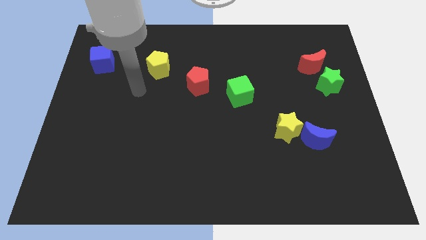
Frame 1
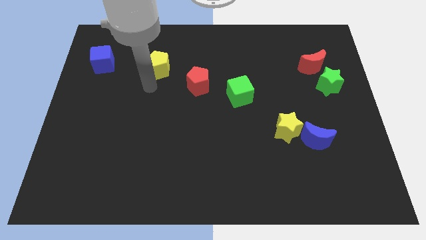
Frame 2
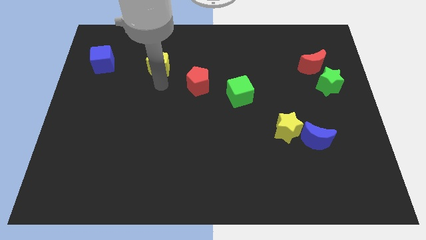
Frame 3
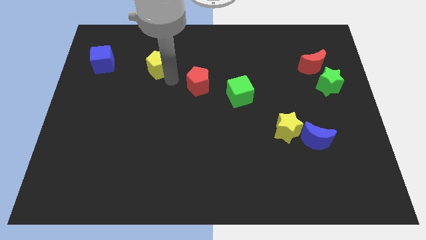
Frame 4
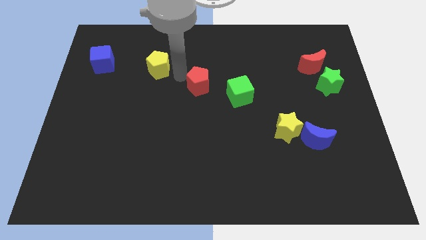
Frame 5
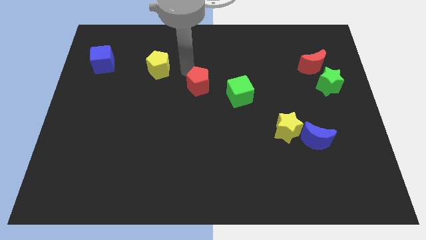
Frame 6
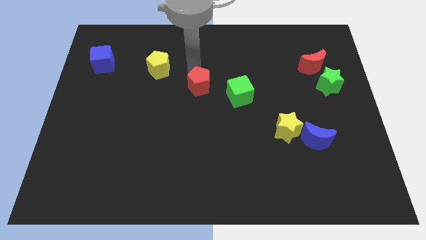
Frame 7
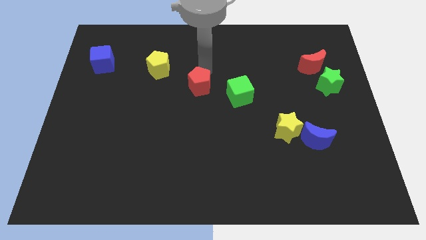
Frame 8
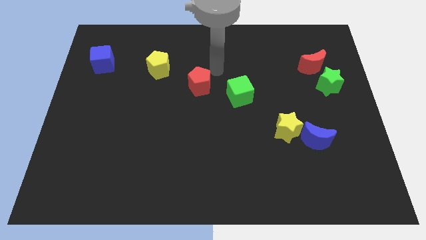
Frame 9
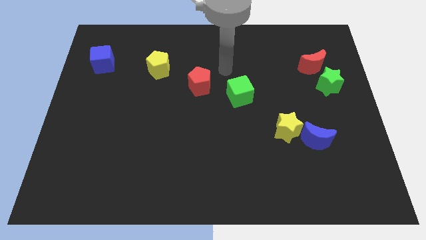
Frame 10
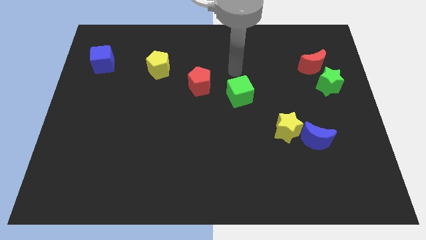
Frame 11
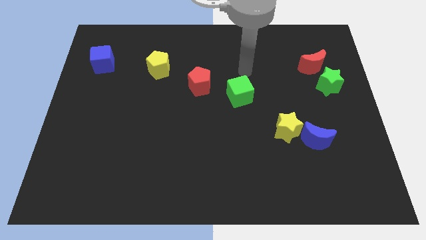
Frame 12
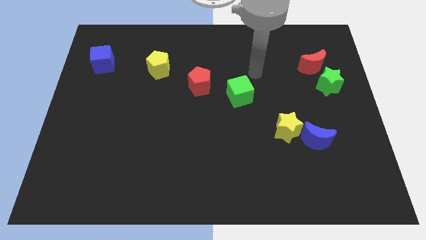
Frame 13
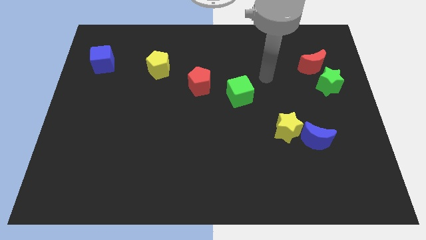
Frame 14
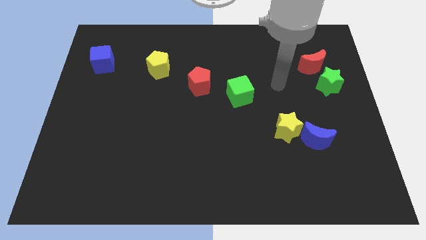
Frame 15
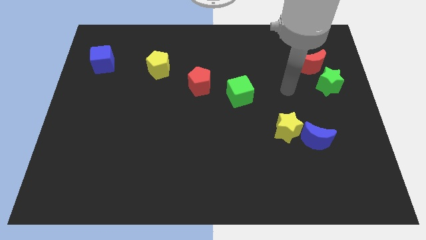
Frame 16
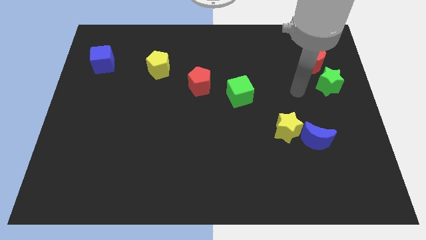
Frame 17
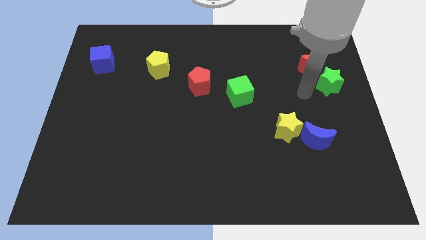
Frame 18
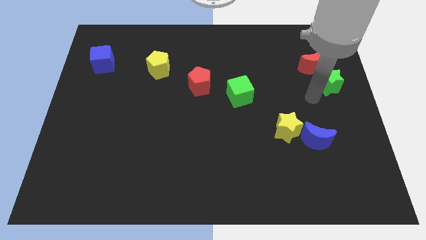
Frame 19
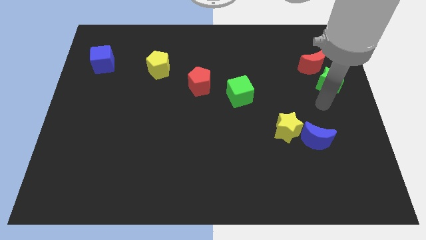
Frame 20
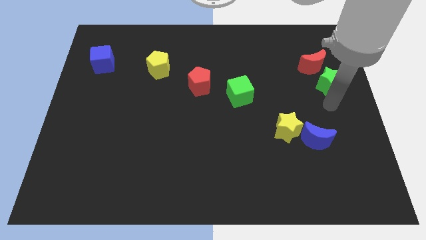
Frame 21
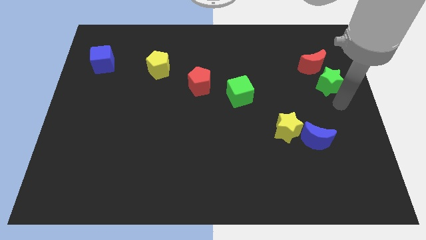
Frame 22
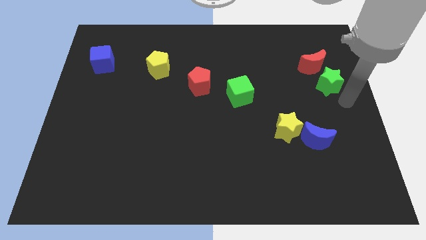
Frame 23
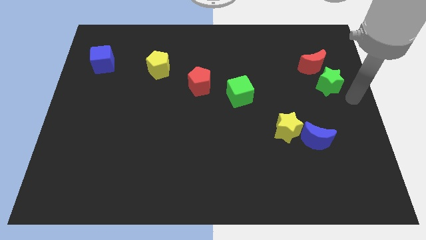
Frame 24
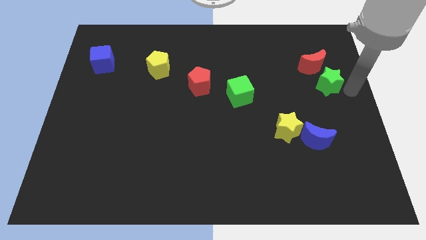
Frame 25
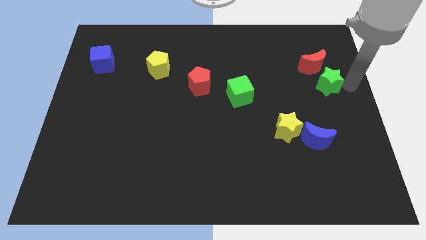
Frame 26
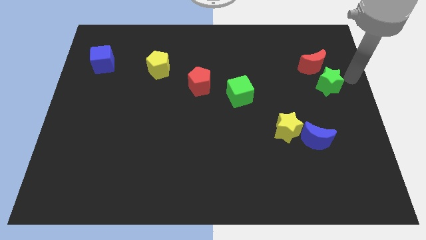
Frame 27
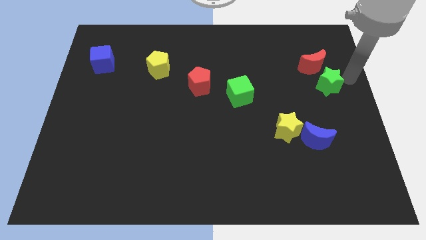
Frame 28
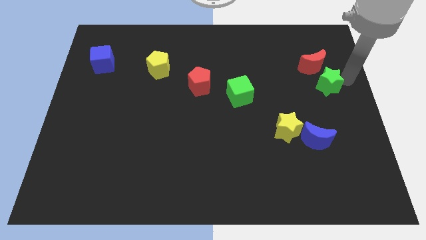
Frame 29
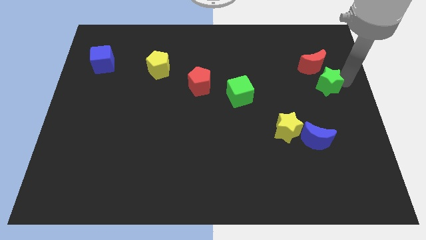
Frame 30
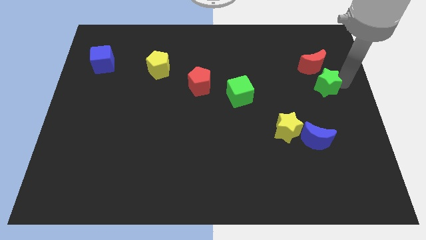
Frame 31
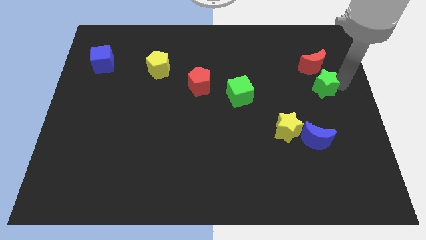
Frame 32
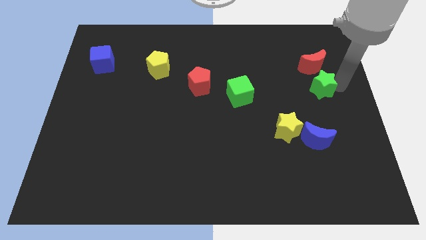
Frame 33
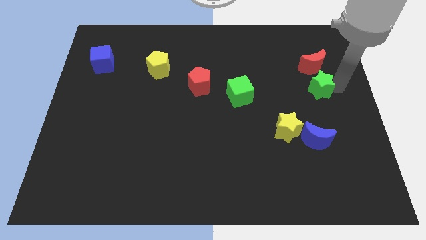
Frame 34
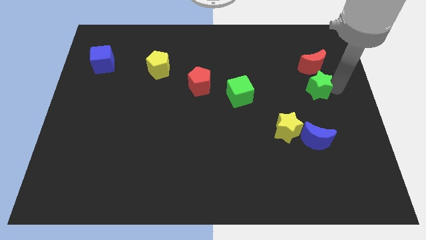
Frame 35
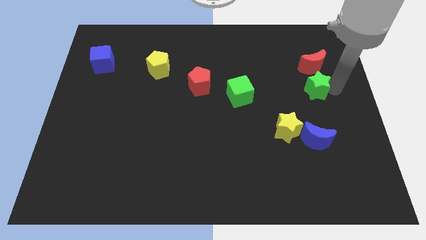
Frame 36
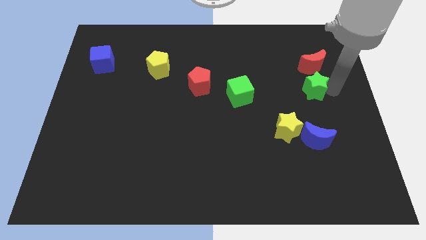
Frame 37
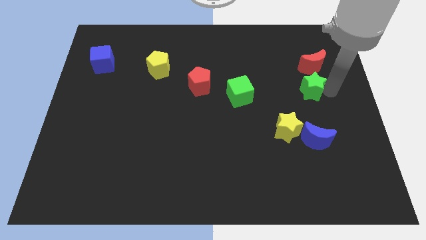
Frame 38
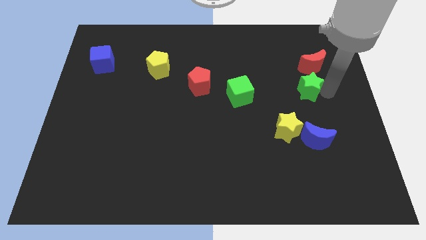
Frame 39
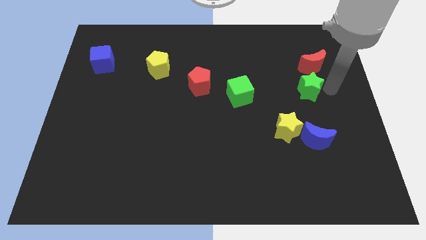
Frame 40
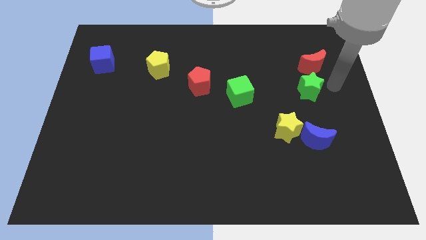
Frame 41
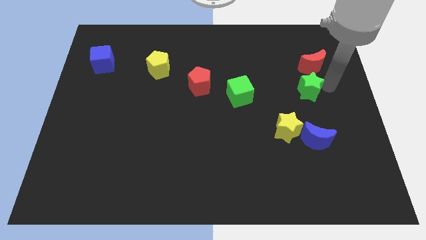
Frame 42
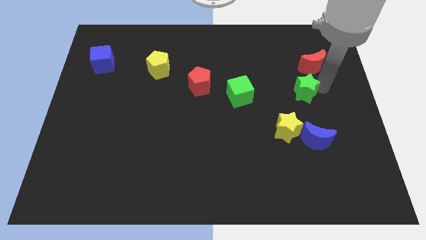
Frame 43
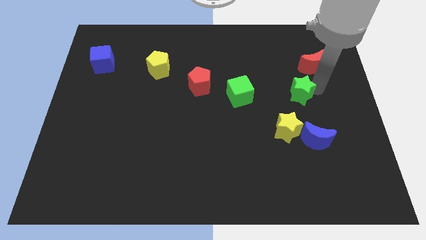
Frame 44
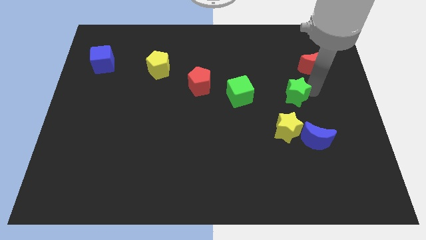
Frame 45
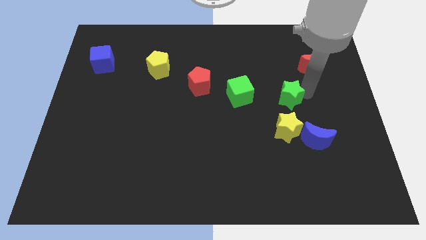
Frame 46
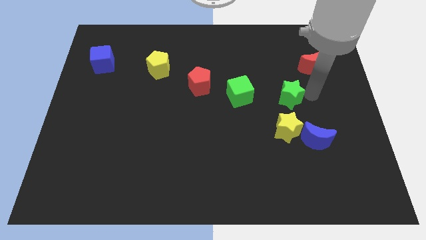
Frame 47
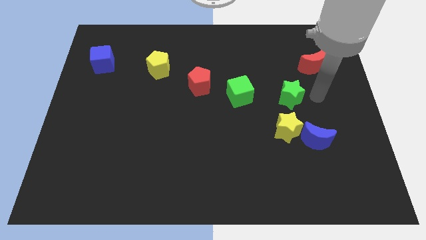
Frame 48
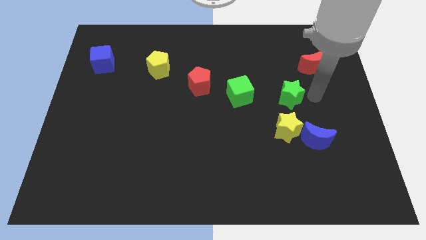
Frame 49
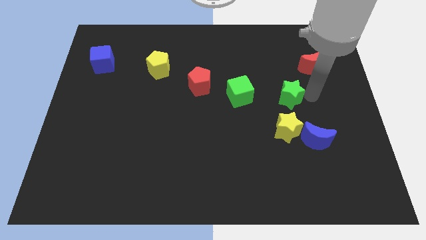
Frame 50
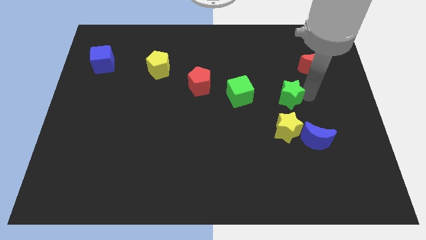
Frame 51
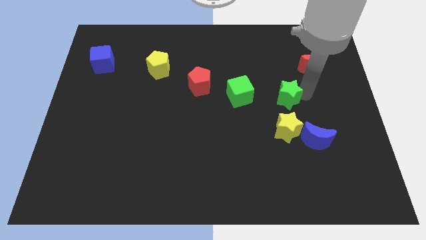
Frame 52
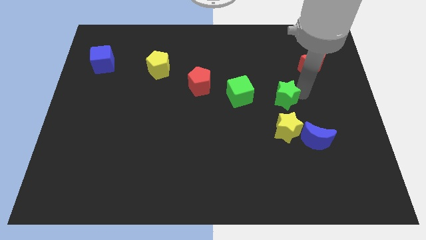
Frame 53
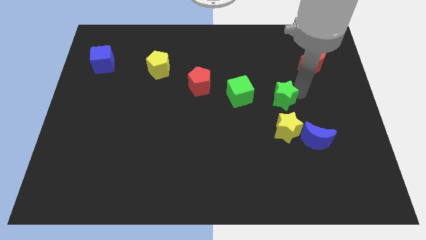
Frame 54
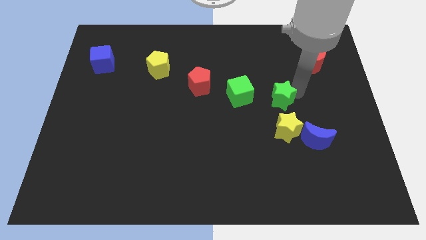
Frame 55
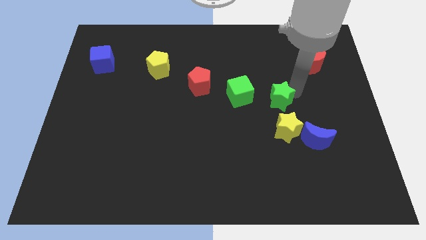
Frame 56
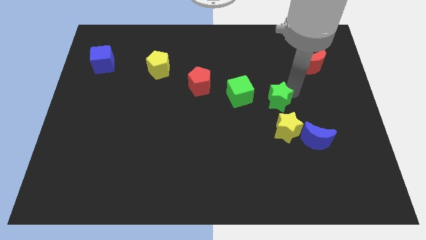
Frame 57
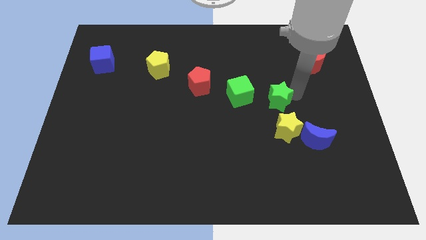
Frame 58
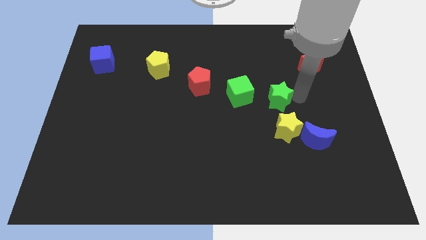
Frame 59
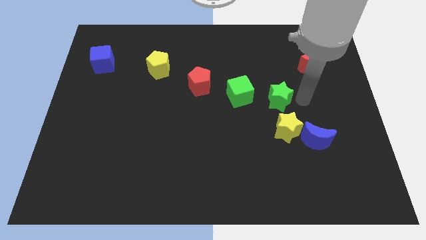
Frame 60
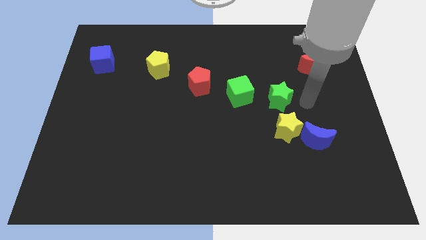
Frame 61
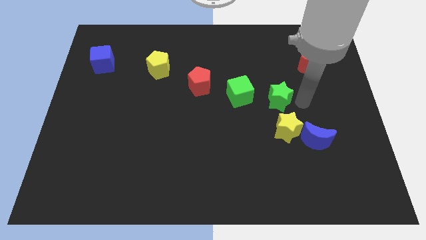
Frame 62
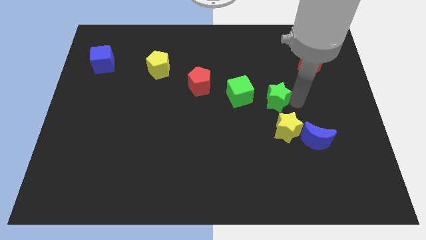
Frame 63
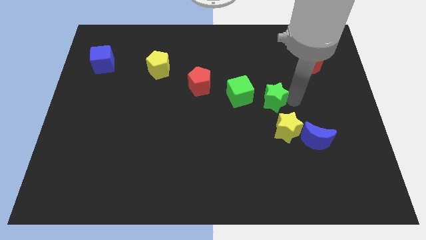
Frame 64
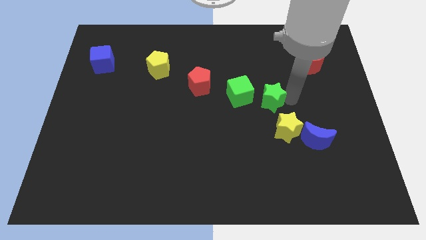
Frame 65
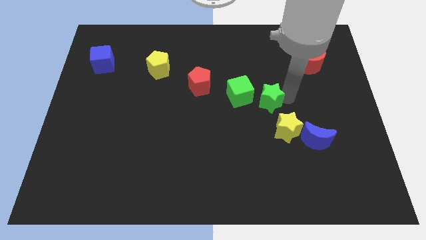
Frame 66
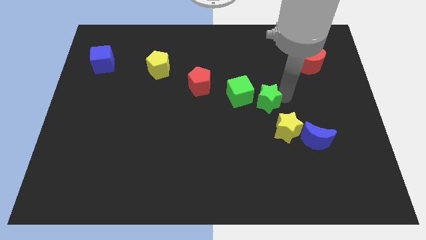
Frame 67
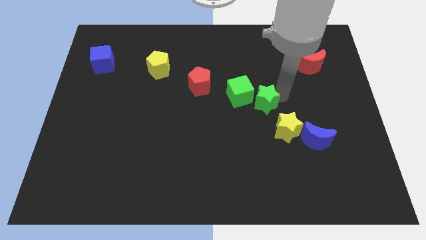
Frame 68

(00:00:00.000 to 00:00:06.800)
move the green star to the middle

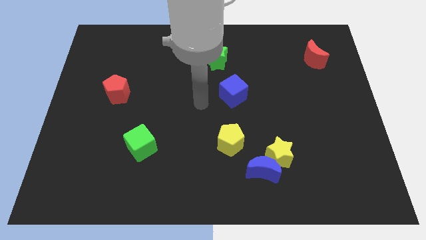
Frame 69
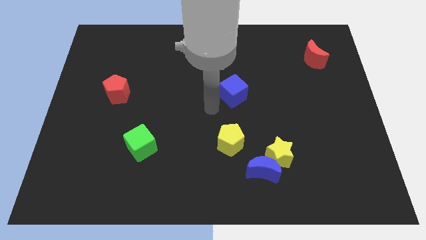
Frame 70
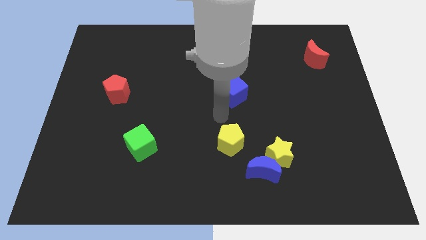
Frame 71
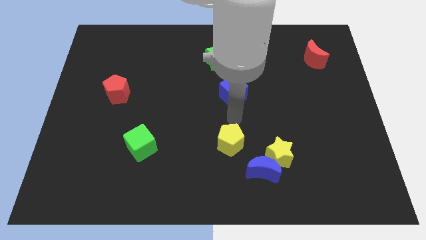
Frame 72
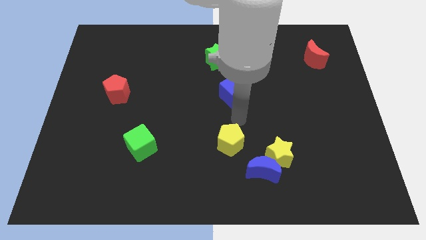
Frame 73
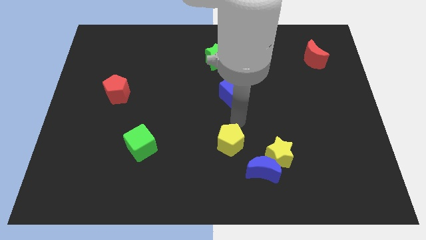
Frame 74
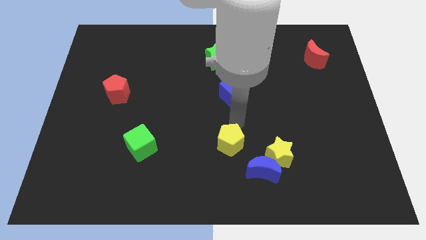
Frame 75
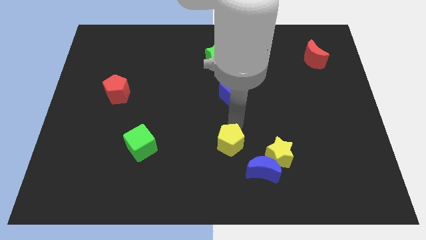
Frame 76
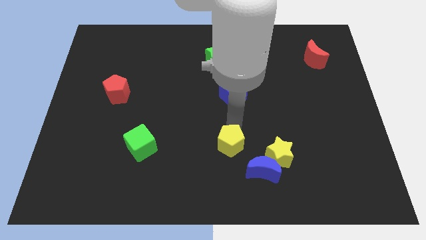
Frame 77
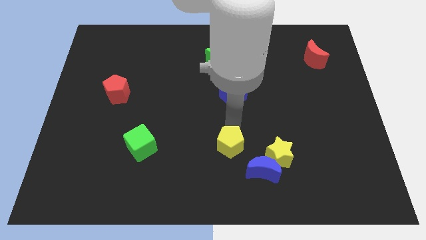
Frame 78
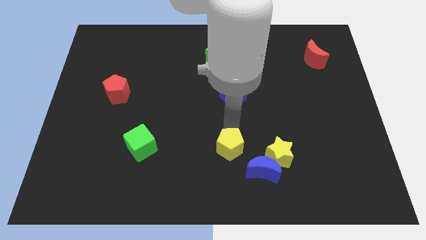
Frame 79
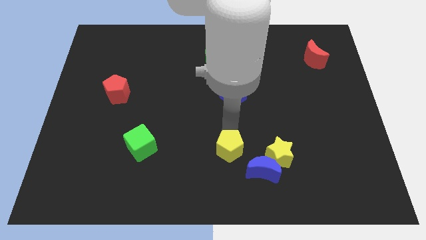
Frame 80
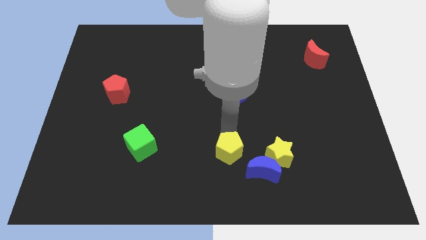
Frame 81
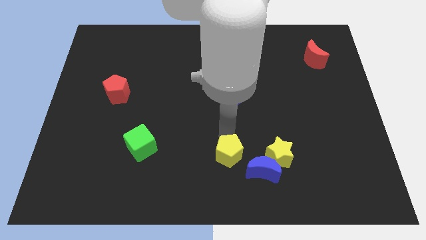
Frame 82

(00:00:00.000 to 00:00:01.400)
move the yellow pentagon to the bottom side

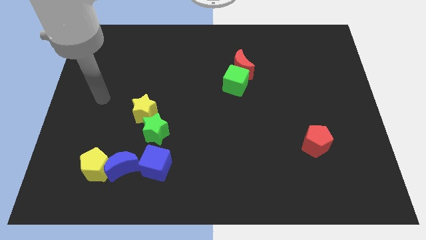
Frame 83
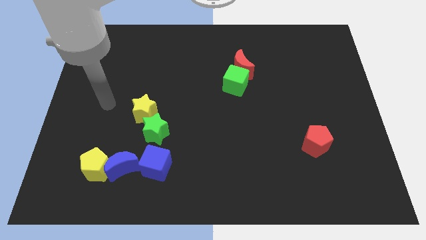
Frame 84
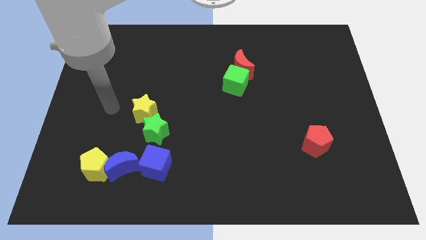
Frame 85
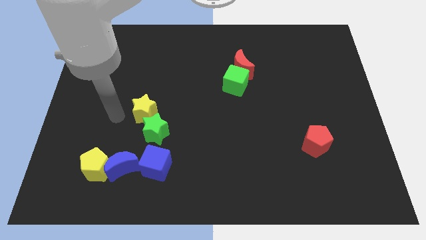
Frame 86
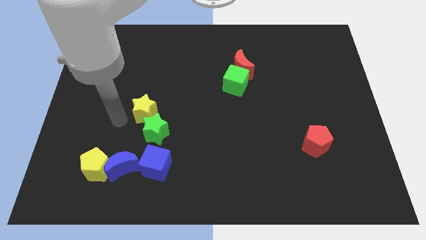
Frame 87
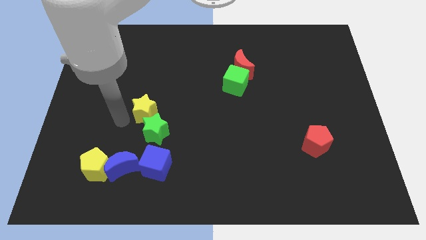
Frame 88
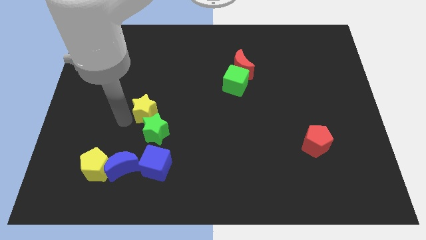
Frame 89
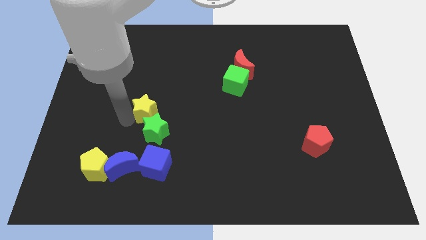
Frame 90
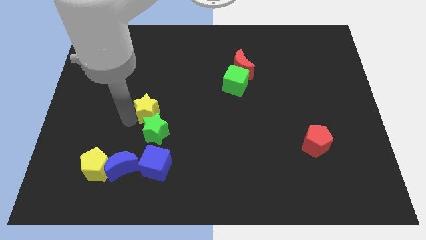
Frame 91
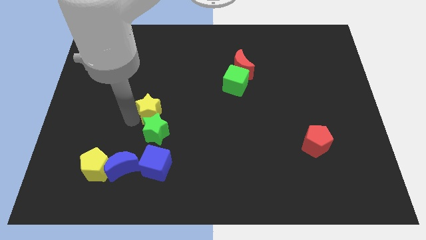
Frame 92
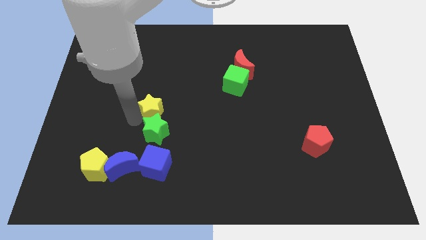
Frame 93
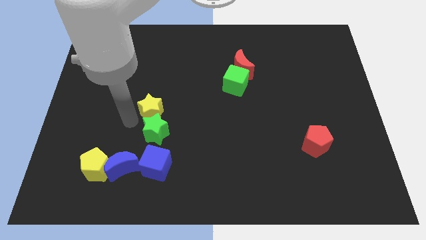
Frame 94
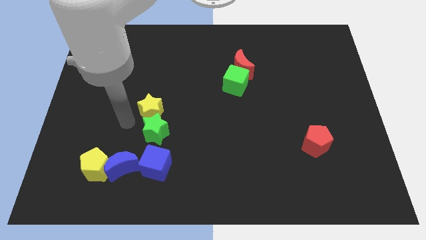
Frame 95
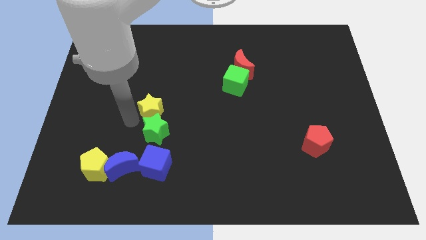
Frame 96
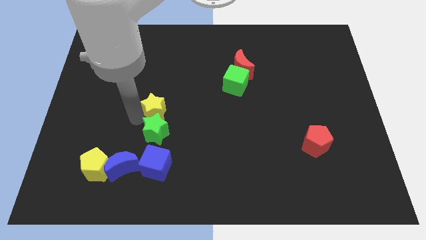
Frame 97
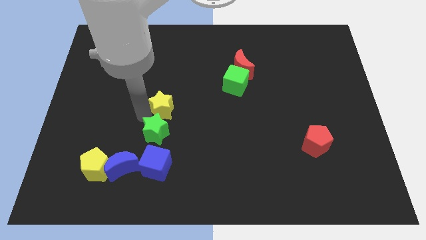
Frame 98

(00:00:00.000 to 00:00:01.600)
slide the yellow star to the middle of the board
